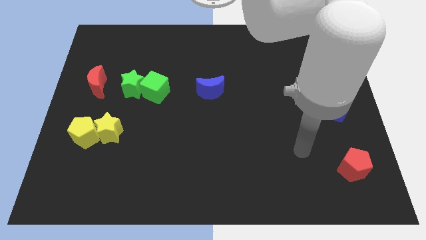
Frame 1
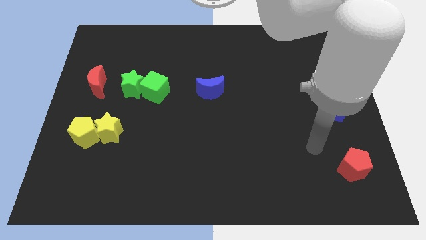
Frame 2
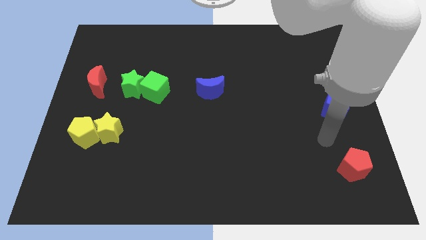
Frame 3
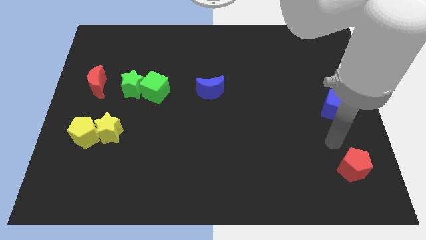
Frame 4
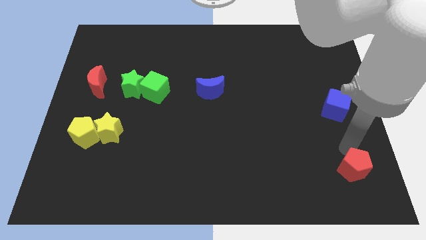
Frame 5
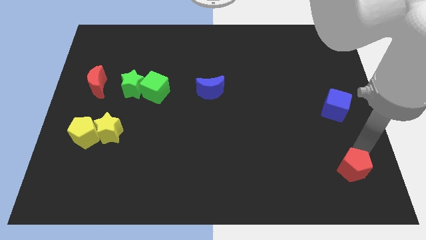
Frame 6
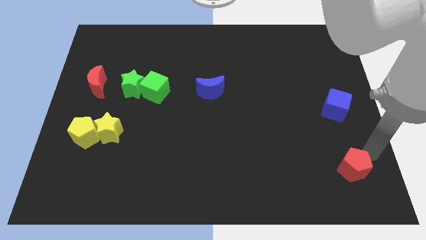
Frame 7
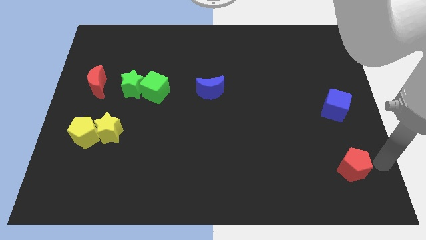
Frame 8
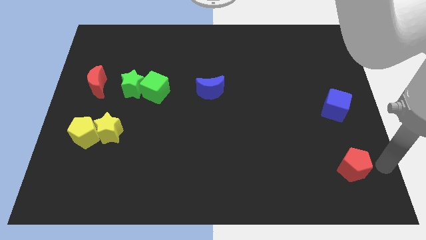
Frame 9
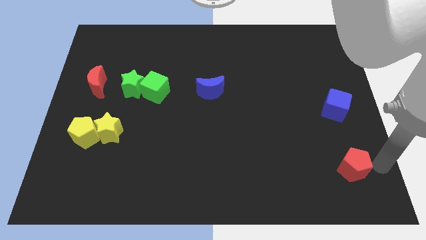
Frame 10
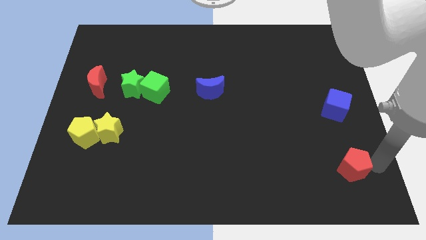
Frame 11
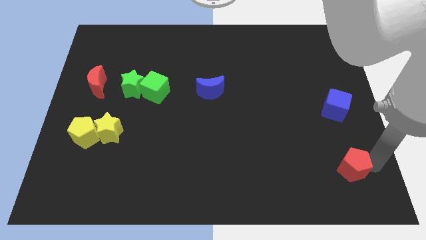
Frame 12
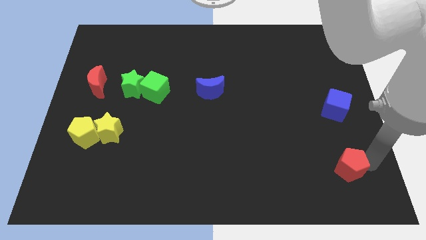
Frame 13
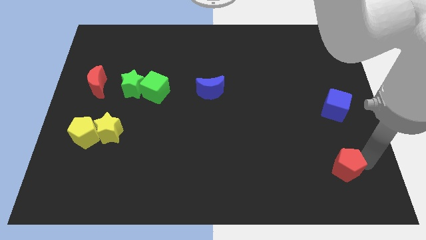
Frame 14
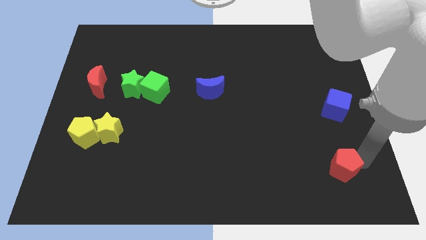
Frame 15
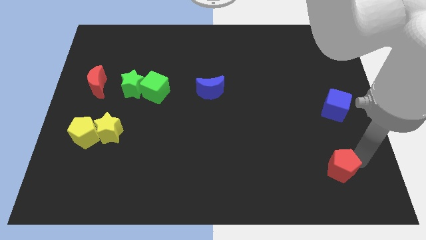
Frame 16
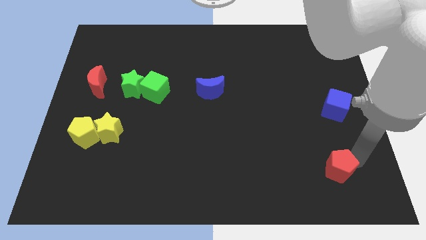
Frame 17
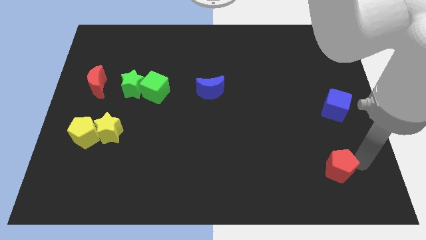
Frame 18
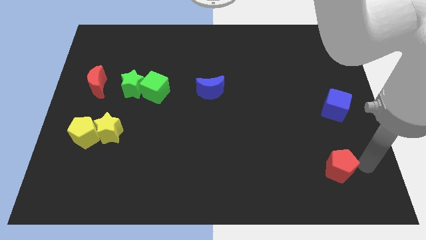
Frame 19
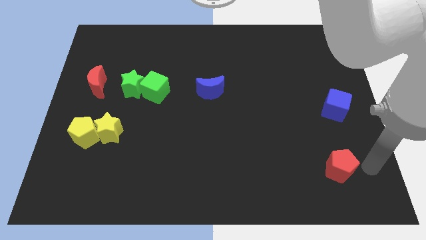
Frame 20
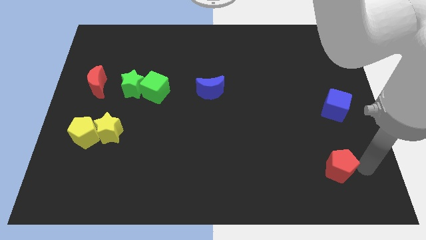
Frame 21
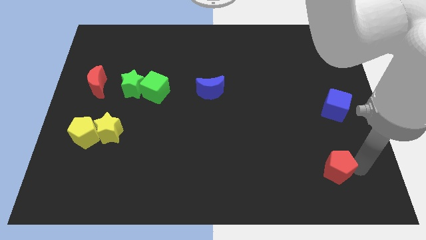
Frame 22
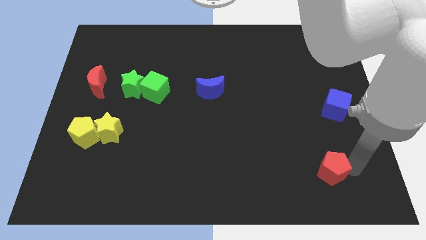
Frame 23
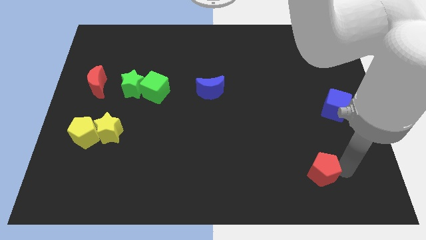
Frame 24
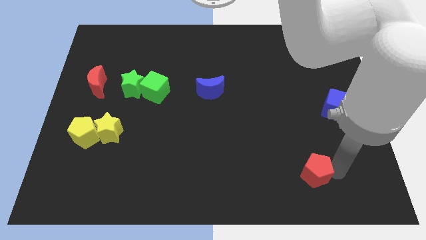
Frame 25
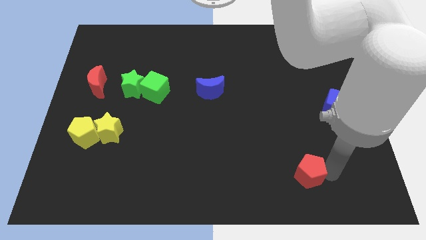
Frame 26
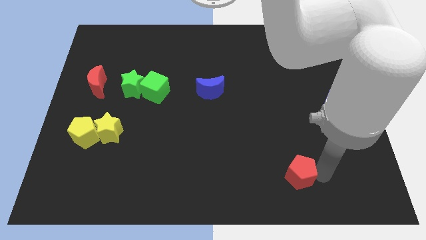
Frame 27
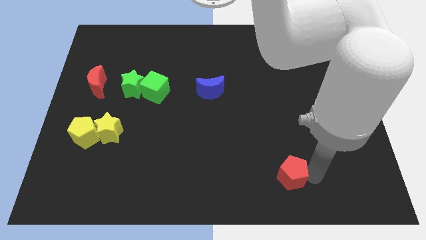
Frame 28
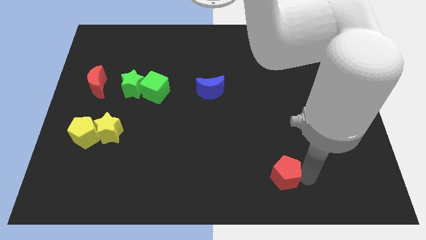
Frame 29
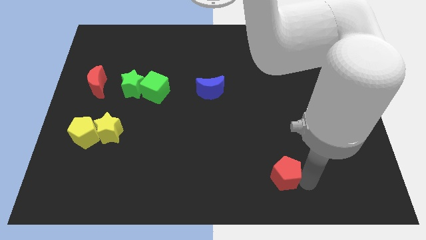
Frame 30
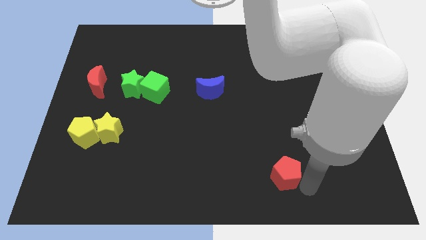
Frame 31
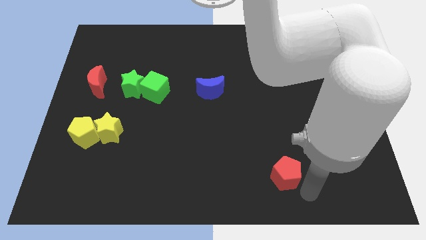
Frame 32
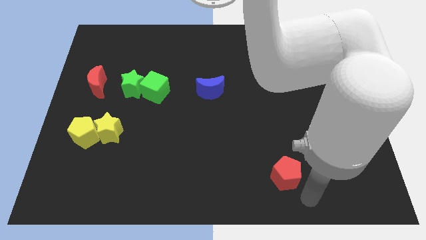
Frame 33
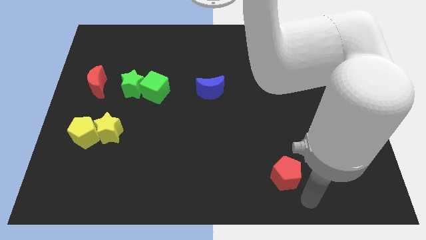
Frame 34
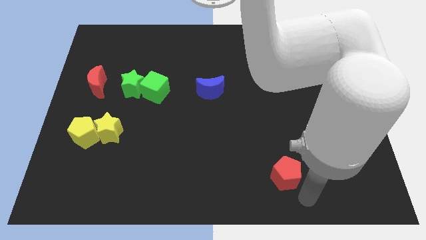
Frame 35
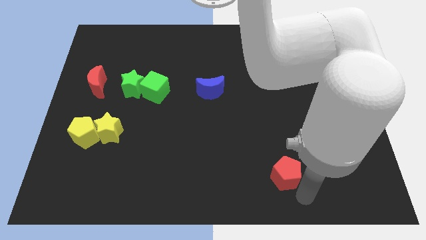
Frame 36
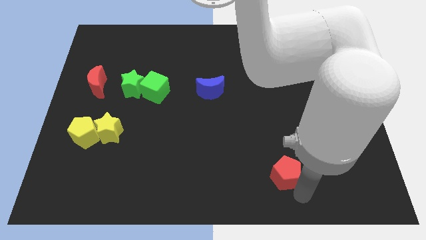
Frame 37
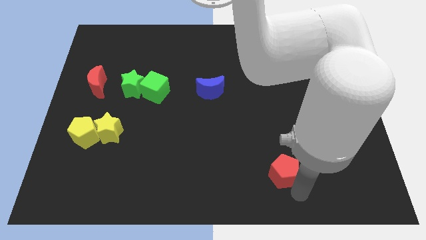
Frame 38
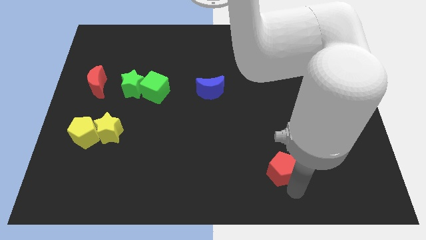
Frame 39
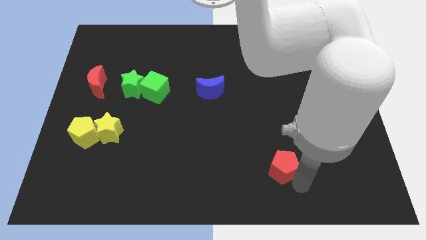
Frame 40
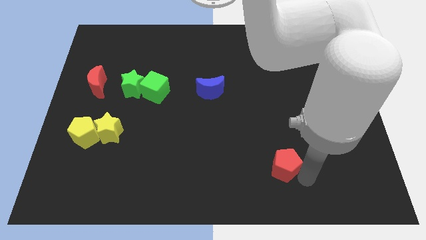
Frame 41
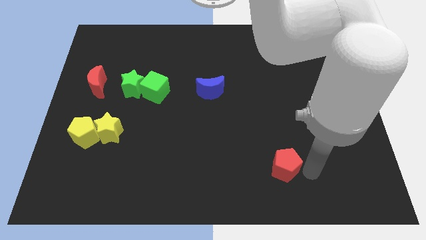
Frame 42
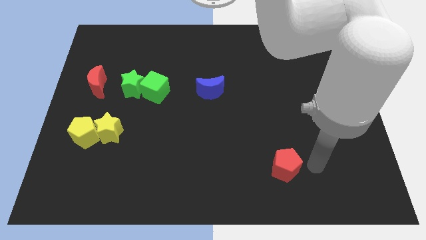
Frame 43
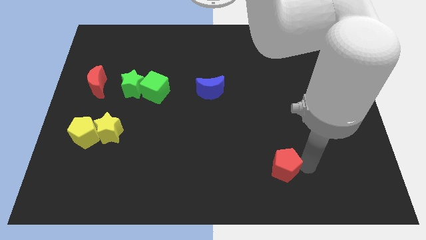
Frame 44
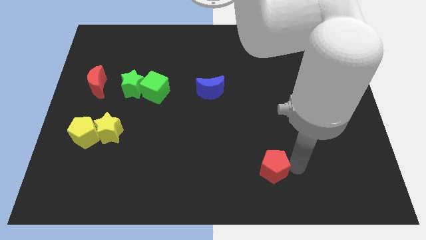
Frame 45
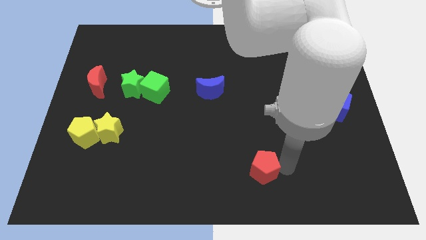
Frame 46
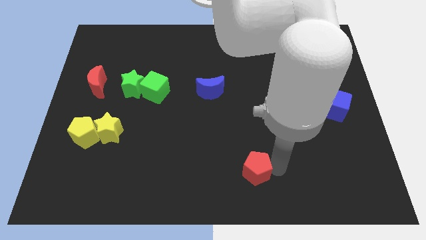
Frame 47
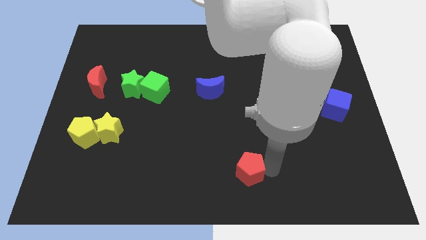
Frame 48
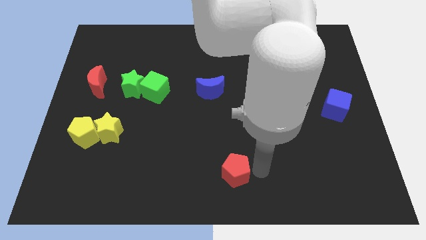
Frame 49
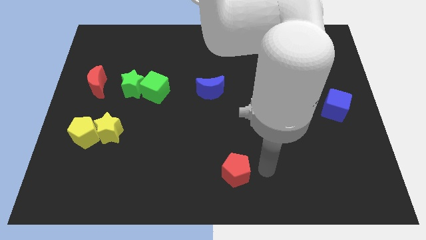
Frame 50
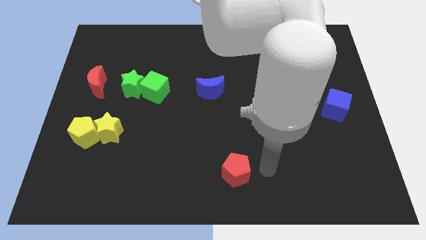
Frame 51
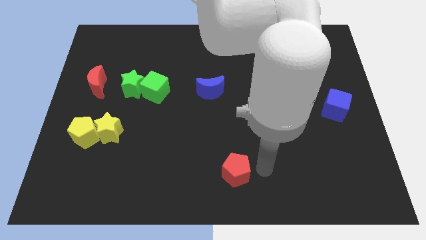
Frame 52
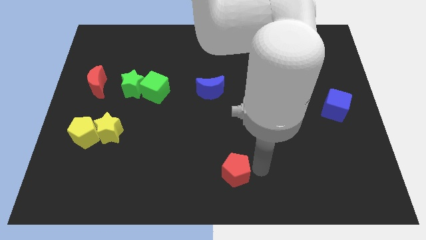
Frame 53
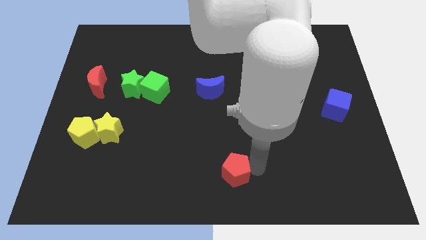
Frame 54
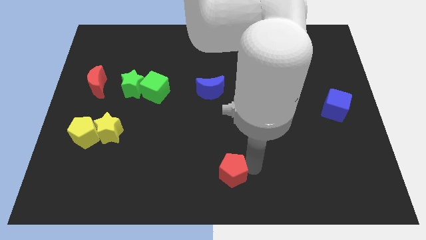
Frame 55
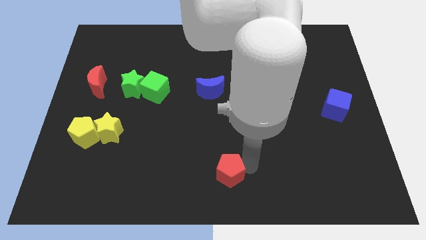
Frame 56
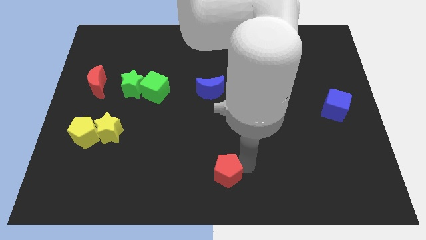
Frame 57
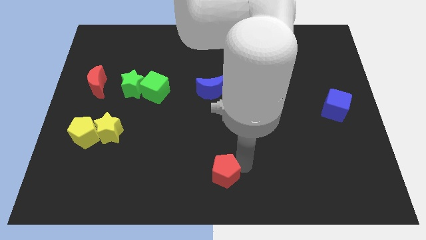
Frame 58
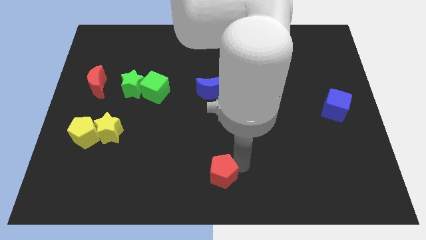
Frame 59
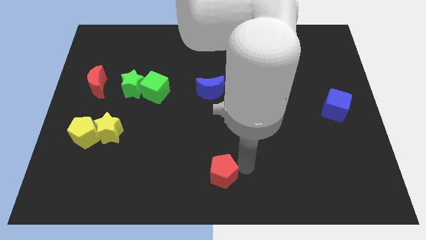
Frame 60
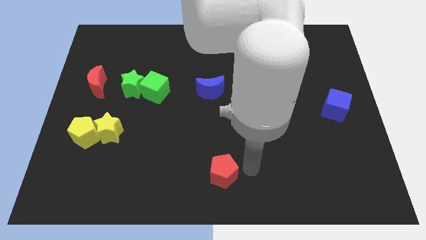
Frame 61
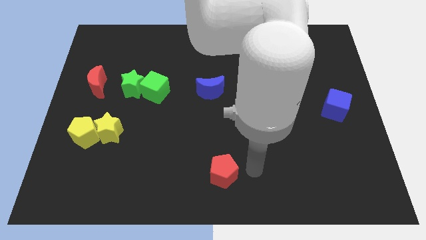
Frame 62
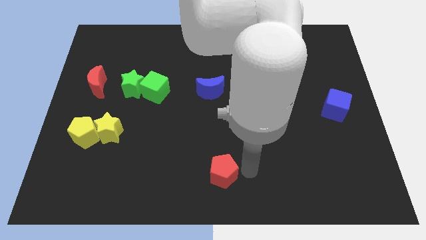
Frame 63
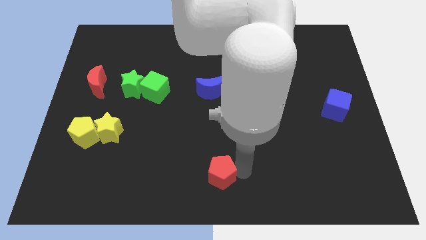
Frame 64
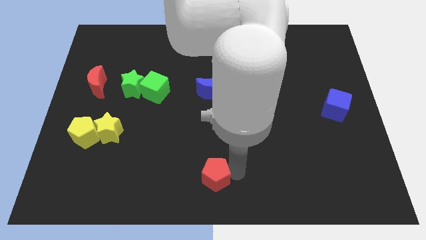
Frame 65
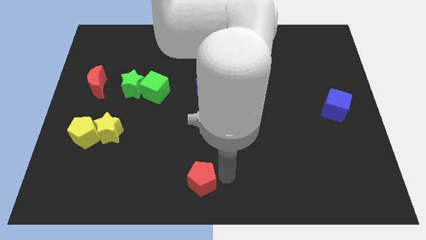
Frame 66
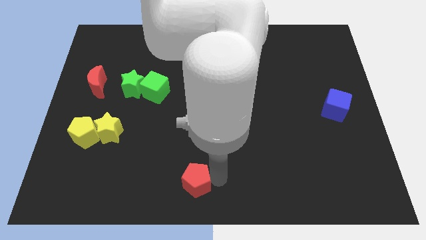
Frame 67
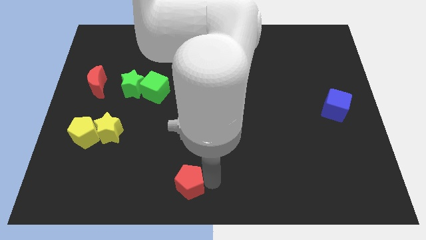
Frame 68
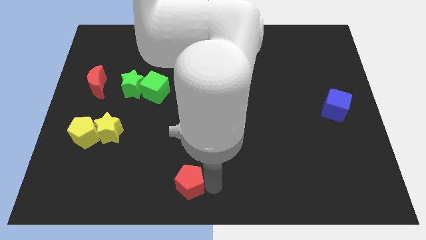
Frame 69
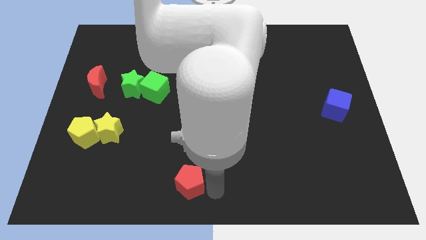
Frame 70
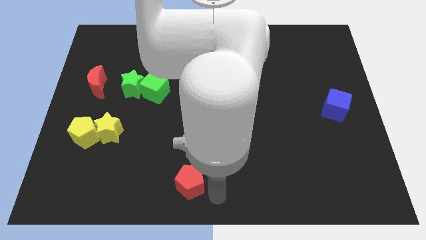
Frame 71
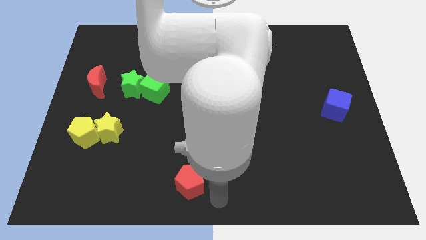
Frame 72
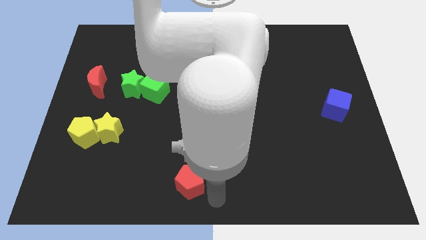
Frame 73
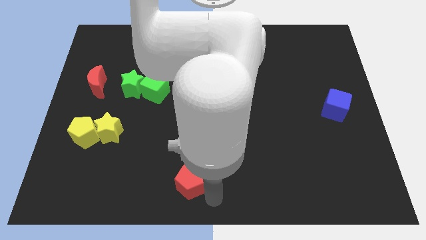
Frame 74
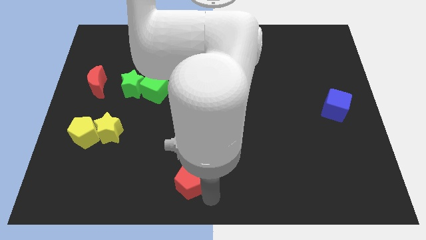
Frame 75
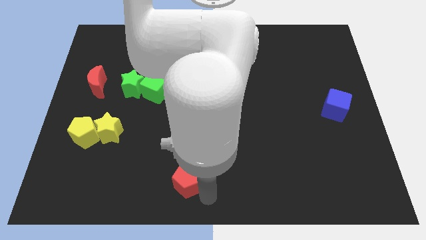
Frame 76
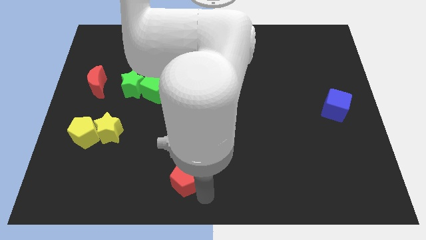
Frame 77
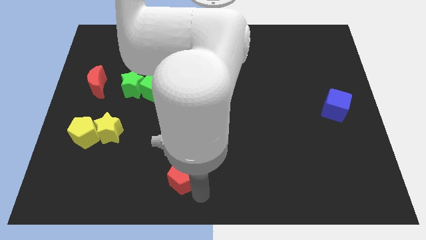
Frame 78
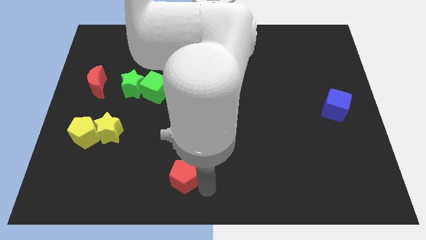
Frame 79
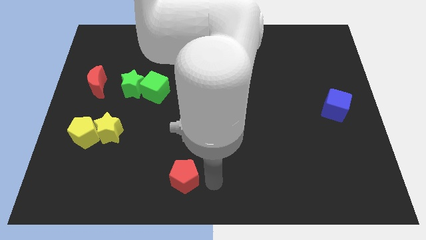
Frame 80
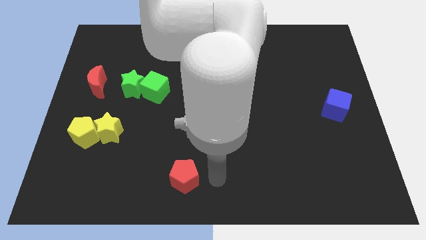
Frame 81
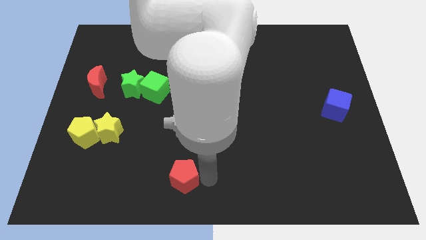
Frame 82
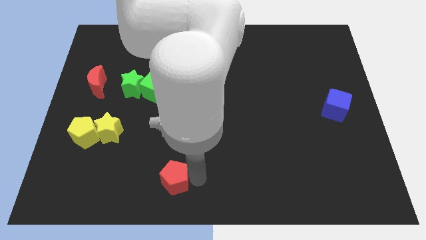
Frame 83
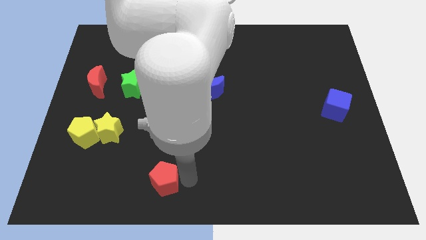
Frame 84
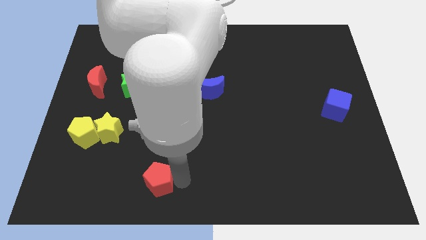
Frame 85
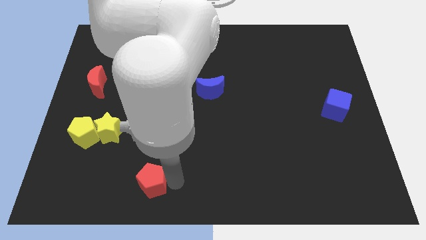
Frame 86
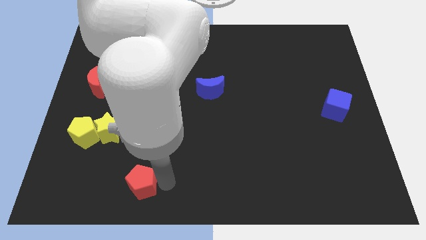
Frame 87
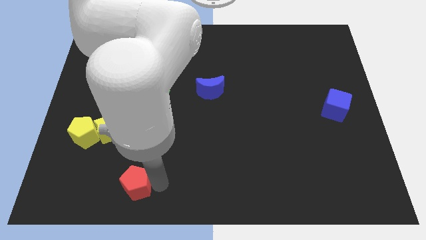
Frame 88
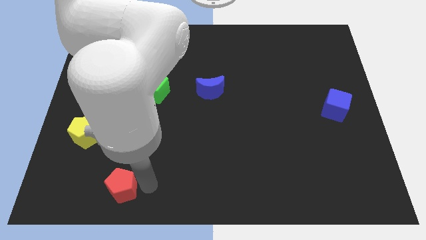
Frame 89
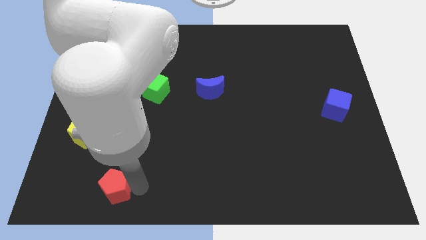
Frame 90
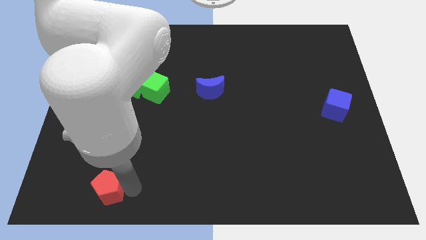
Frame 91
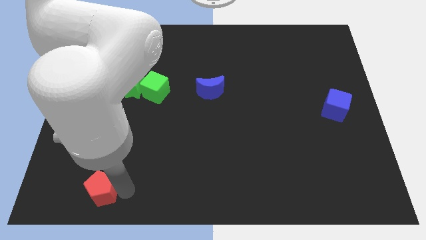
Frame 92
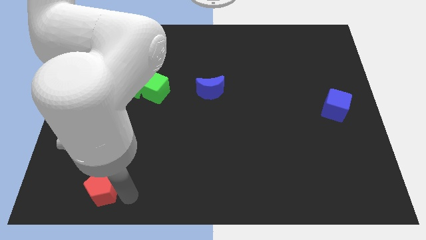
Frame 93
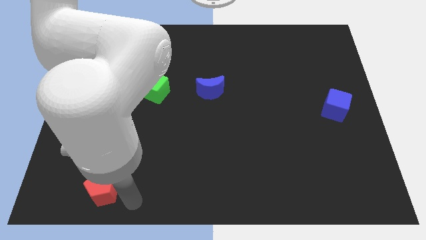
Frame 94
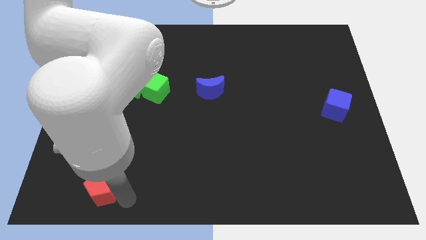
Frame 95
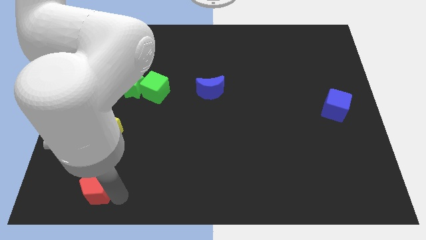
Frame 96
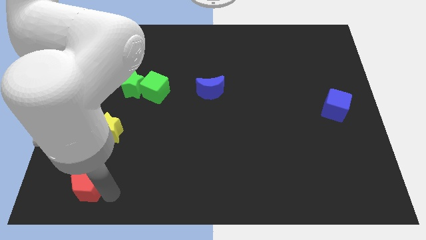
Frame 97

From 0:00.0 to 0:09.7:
put the red pentagon to the bottom of the yellow pentagon
